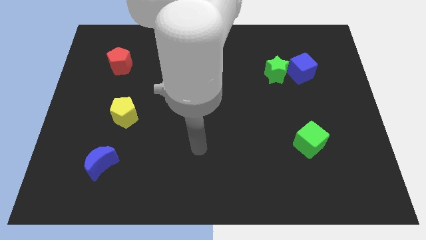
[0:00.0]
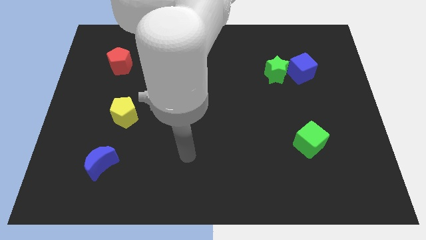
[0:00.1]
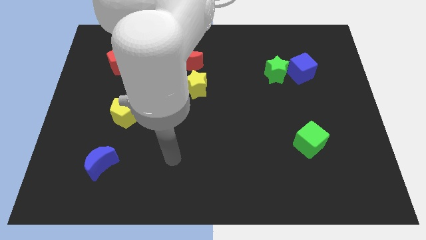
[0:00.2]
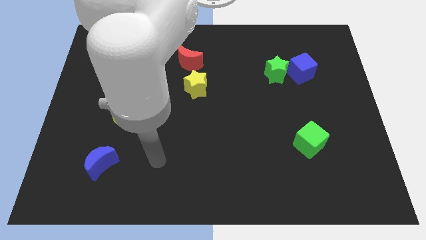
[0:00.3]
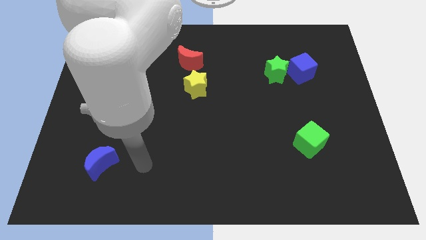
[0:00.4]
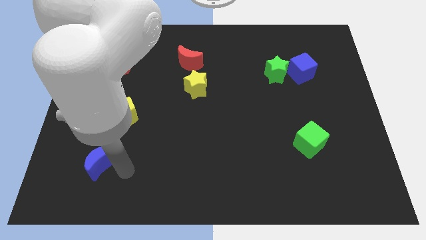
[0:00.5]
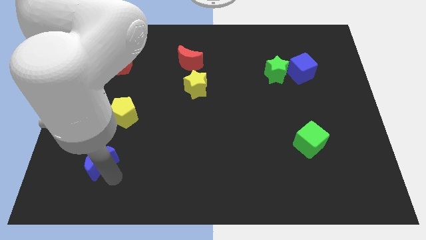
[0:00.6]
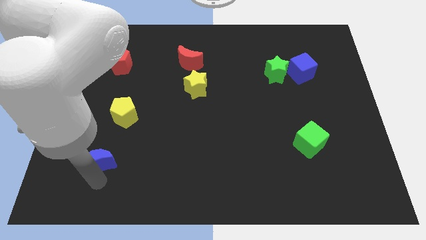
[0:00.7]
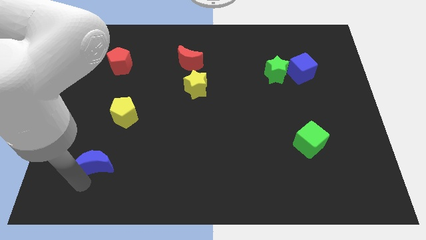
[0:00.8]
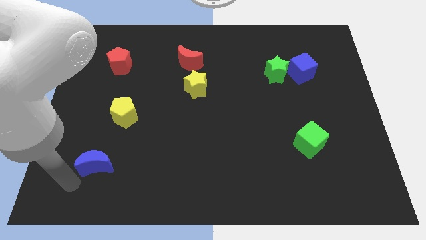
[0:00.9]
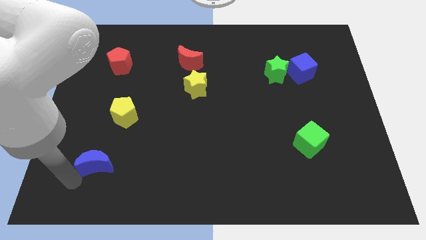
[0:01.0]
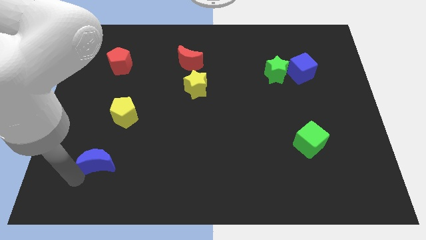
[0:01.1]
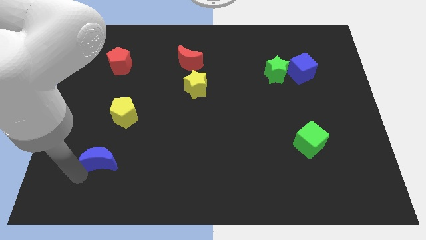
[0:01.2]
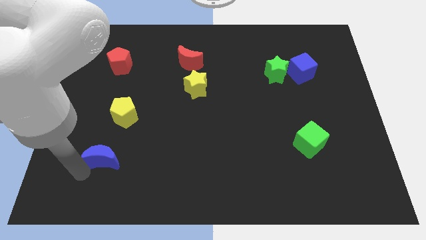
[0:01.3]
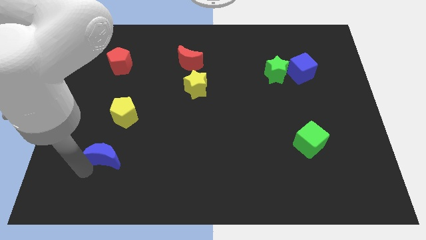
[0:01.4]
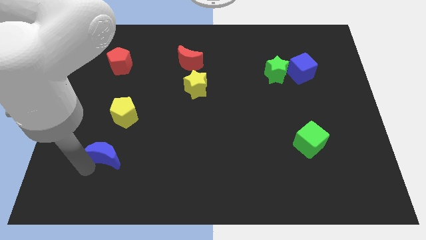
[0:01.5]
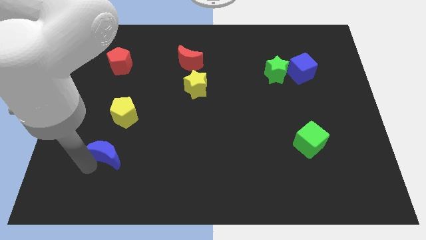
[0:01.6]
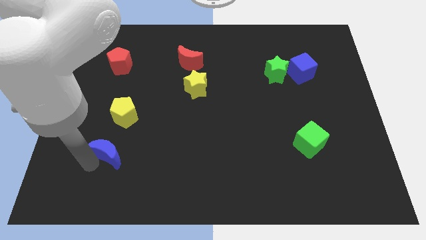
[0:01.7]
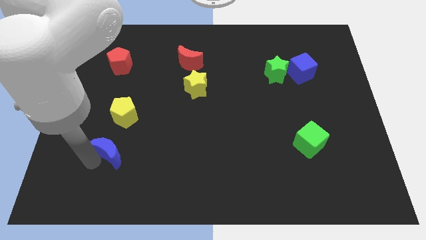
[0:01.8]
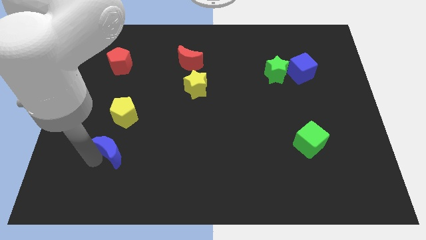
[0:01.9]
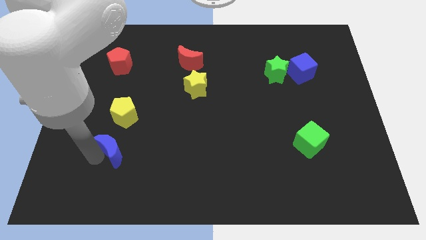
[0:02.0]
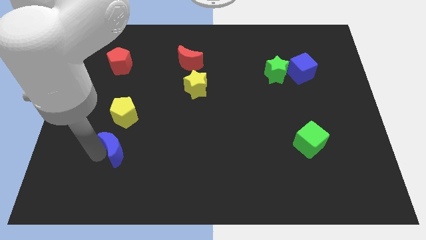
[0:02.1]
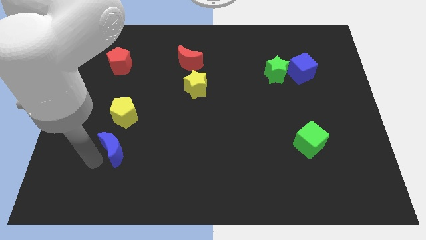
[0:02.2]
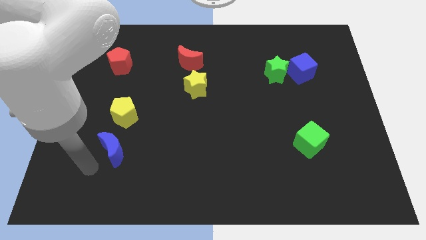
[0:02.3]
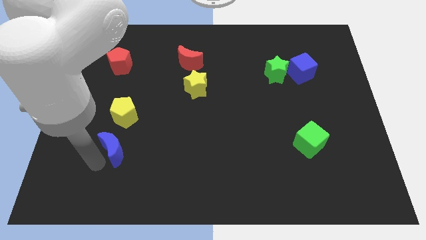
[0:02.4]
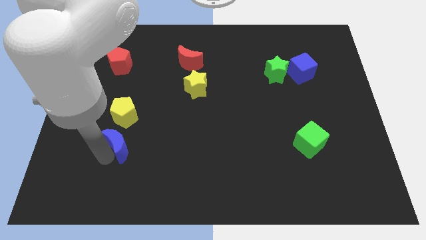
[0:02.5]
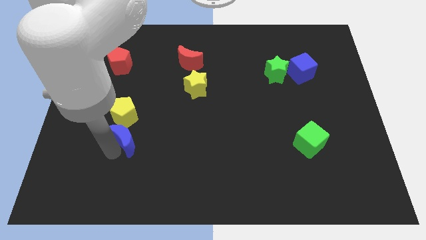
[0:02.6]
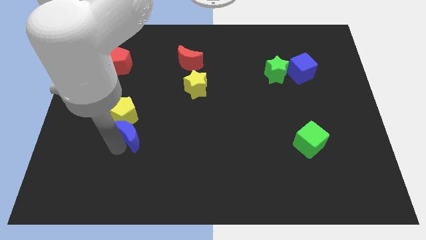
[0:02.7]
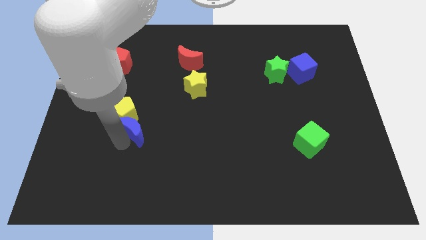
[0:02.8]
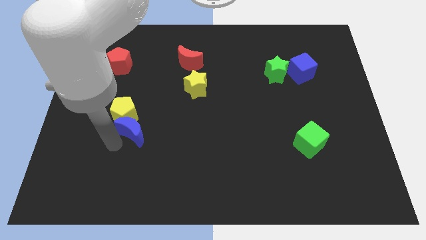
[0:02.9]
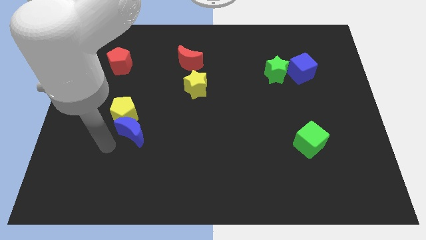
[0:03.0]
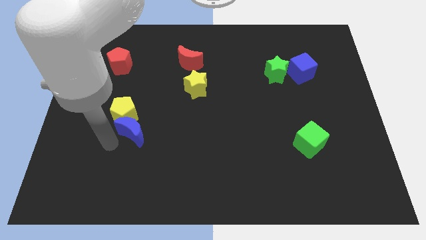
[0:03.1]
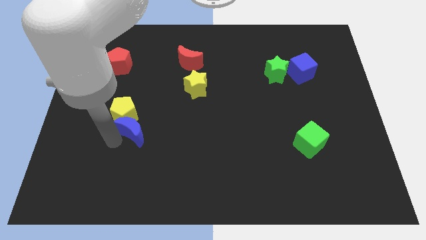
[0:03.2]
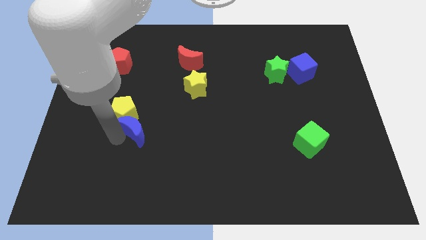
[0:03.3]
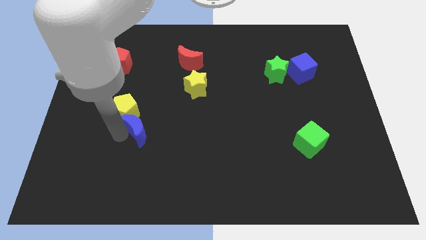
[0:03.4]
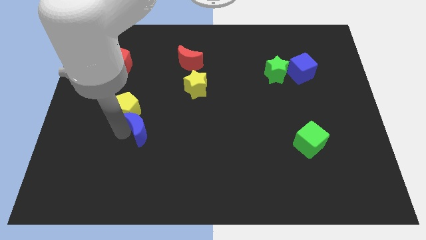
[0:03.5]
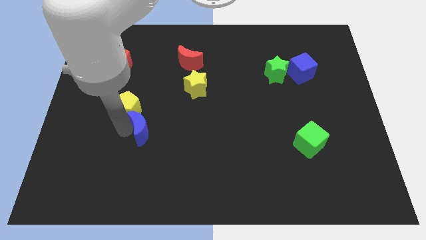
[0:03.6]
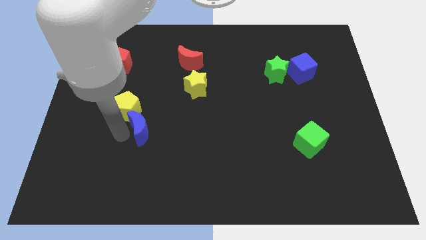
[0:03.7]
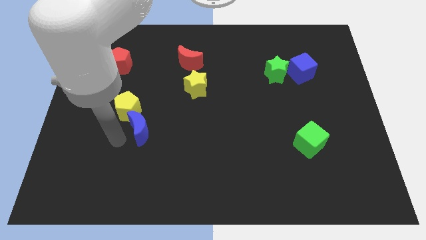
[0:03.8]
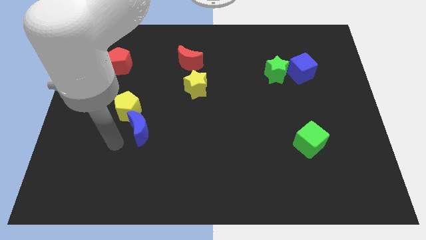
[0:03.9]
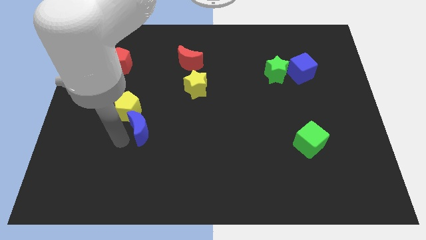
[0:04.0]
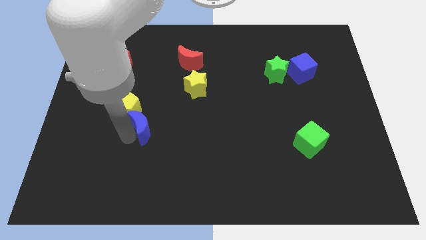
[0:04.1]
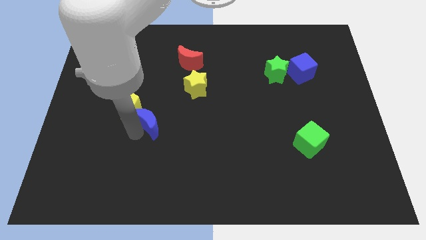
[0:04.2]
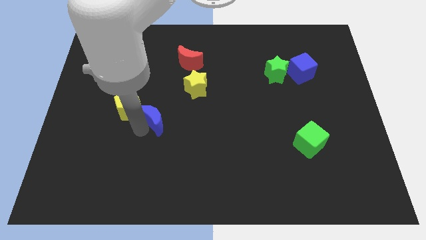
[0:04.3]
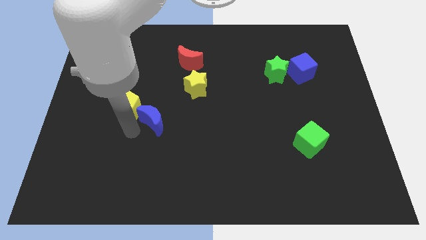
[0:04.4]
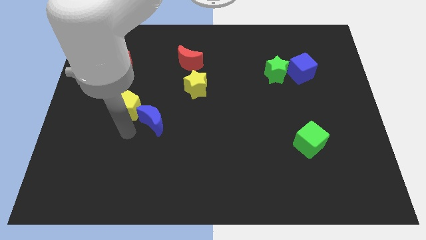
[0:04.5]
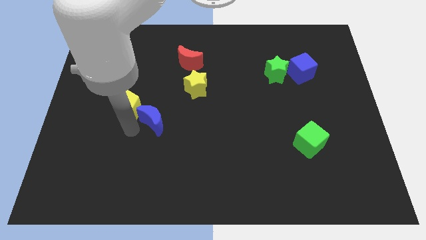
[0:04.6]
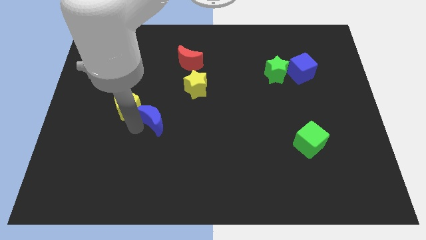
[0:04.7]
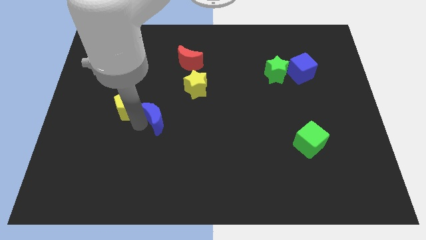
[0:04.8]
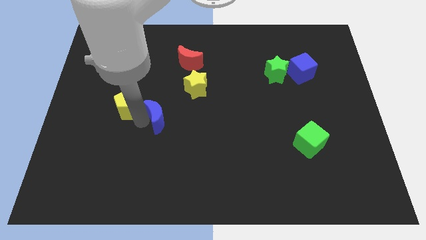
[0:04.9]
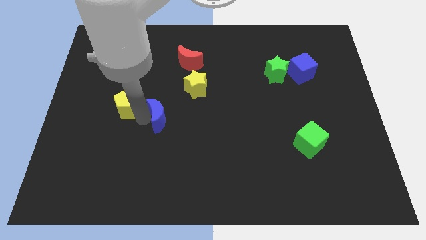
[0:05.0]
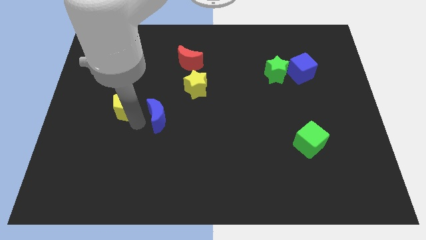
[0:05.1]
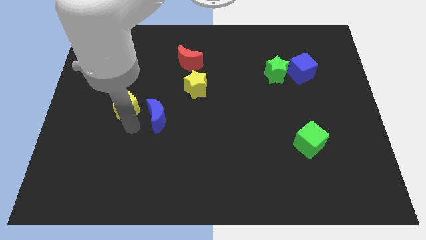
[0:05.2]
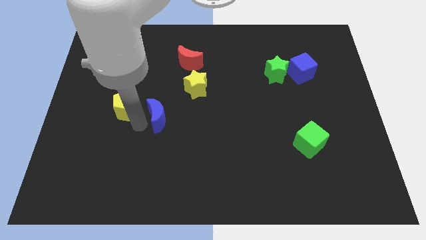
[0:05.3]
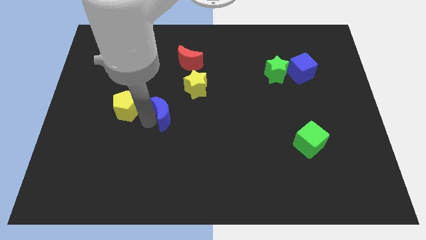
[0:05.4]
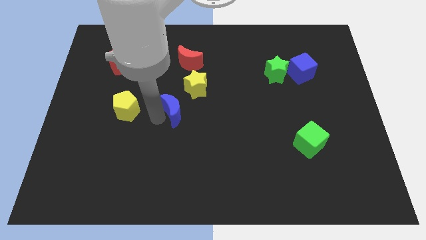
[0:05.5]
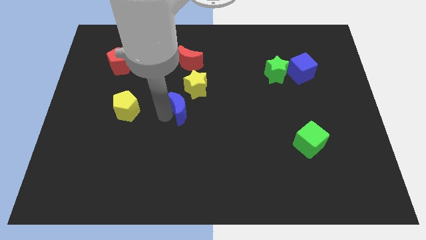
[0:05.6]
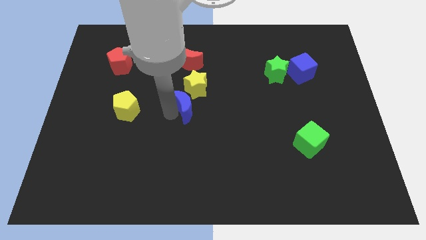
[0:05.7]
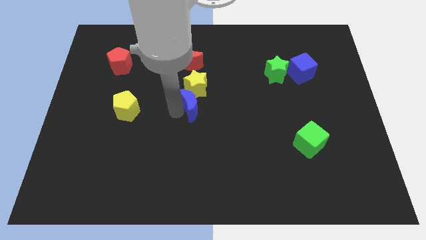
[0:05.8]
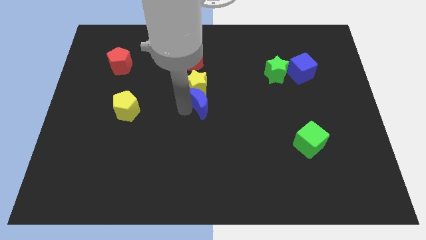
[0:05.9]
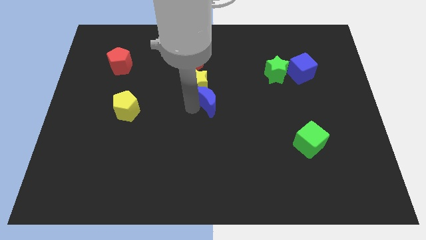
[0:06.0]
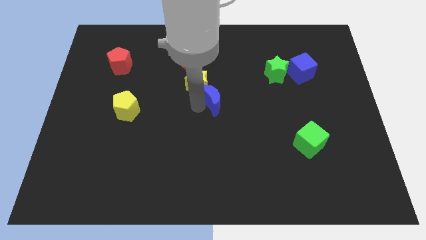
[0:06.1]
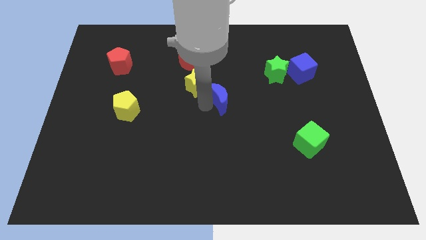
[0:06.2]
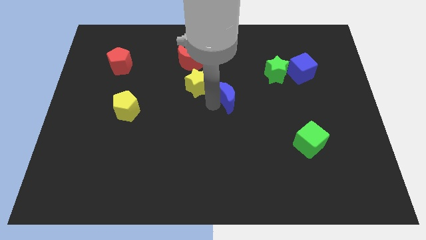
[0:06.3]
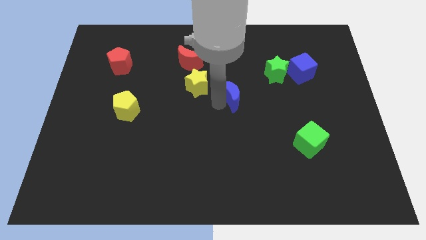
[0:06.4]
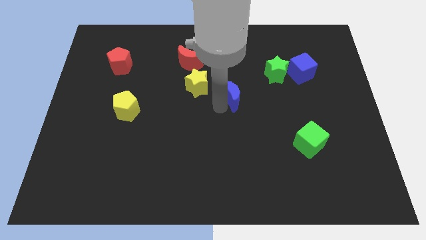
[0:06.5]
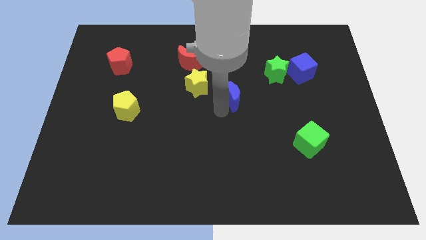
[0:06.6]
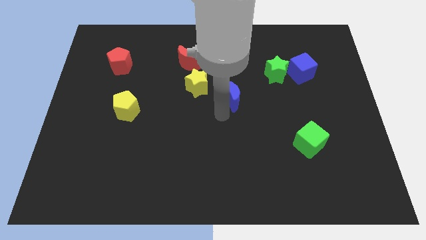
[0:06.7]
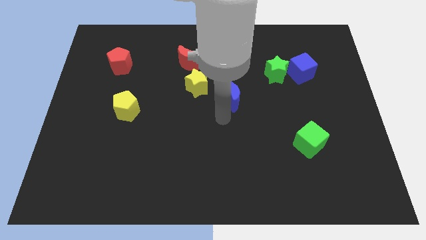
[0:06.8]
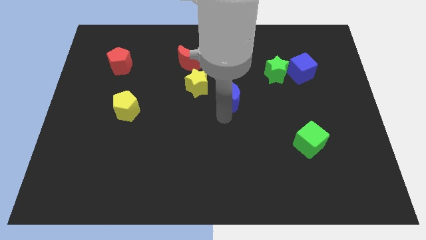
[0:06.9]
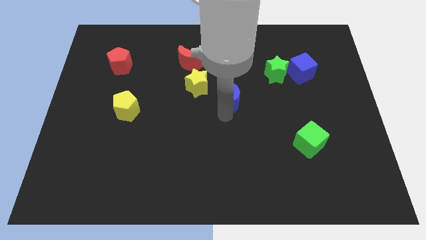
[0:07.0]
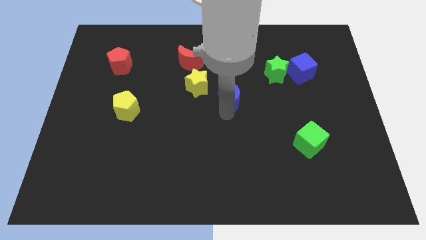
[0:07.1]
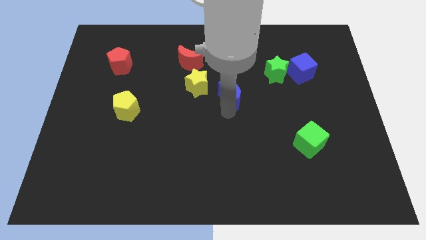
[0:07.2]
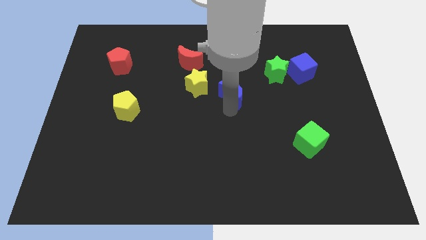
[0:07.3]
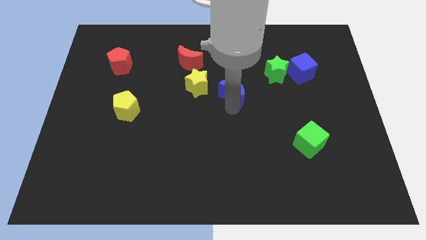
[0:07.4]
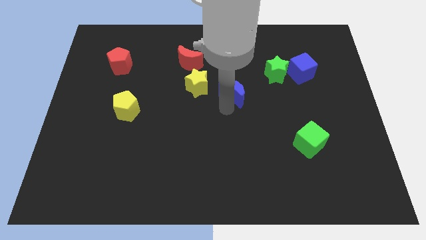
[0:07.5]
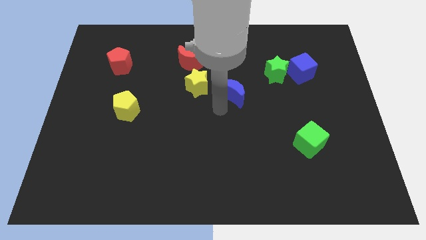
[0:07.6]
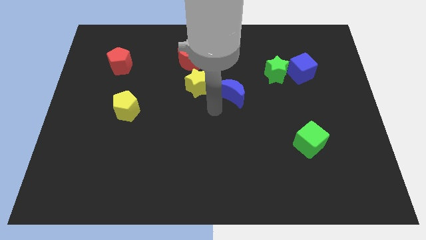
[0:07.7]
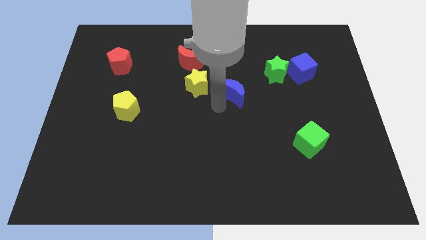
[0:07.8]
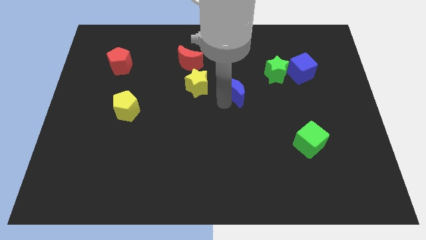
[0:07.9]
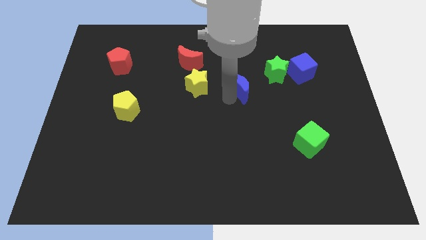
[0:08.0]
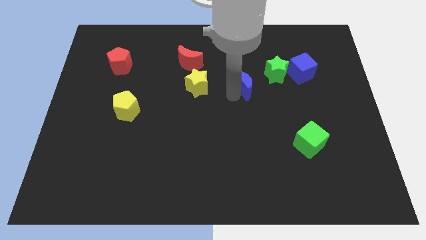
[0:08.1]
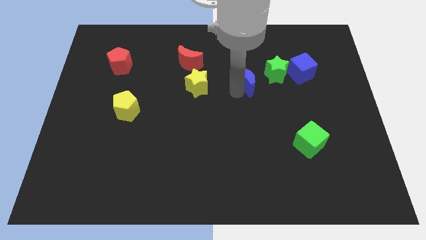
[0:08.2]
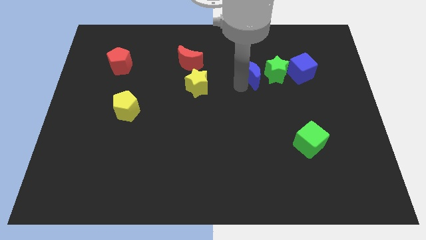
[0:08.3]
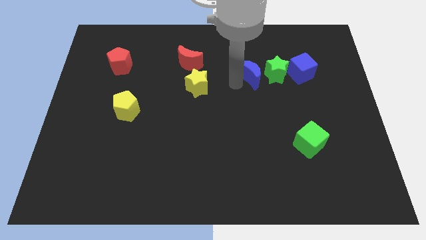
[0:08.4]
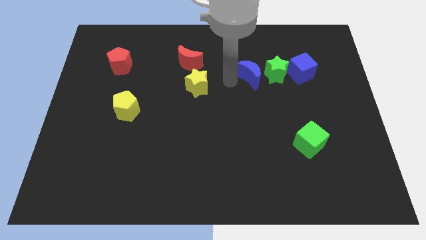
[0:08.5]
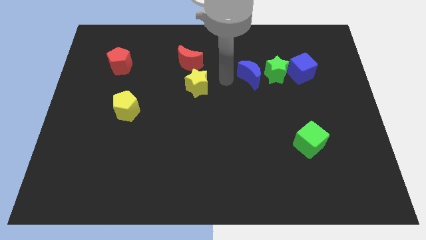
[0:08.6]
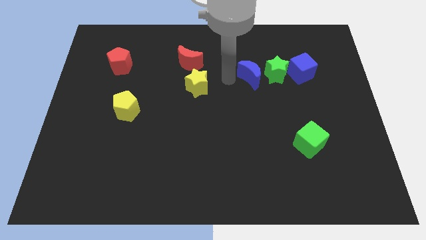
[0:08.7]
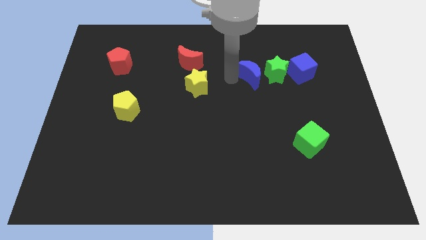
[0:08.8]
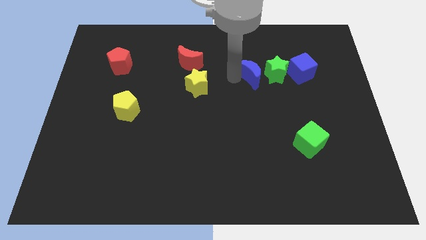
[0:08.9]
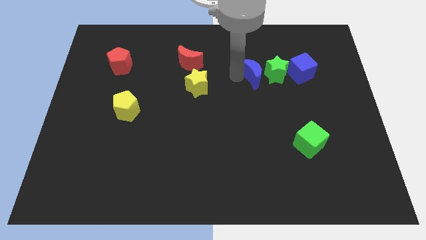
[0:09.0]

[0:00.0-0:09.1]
push the blue moon next to the green star
